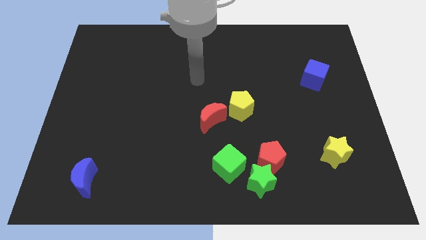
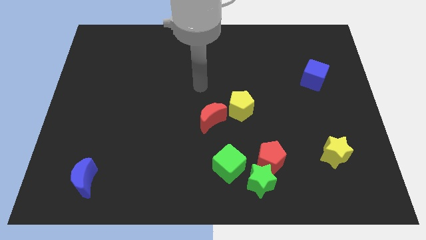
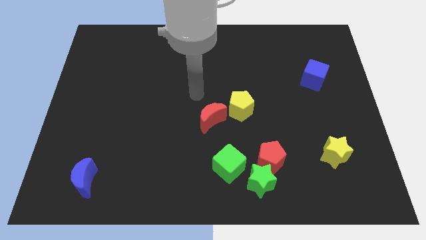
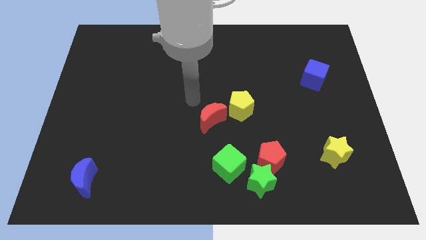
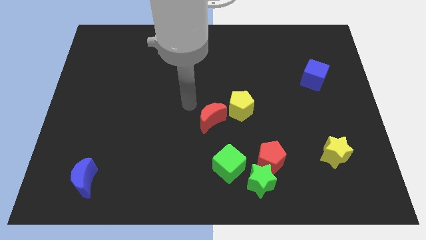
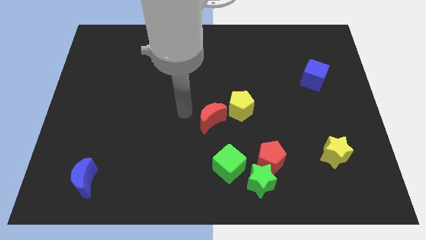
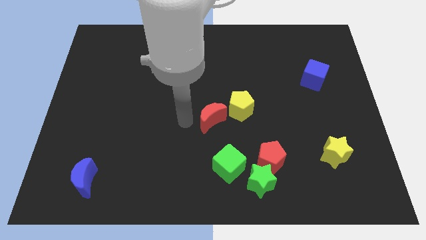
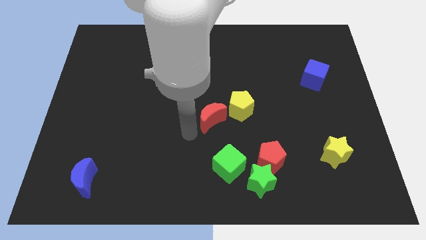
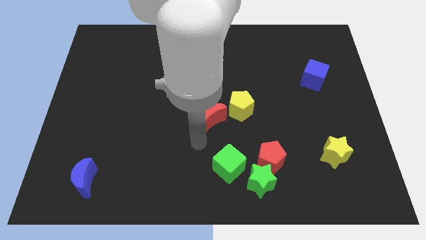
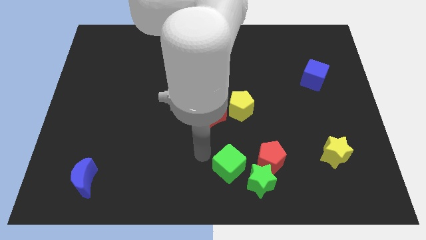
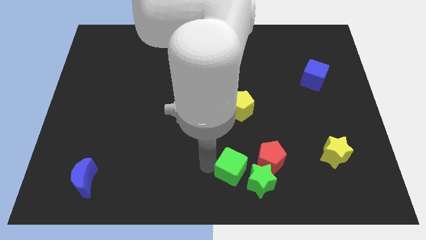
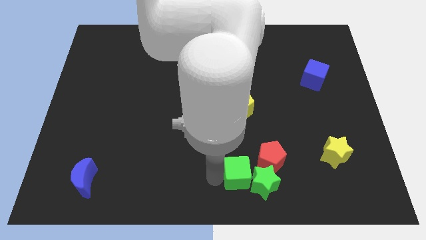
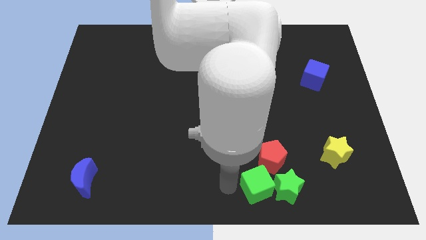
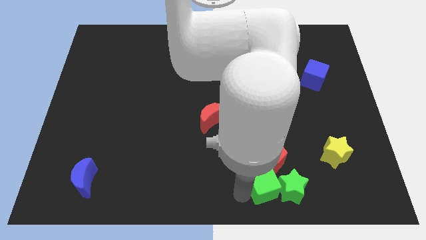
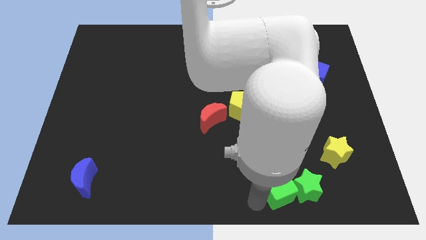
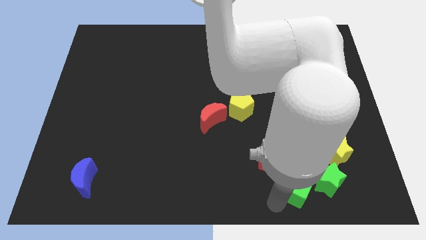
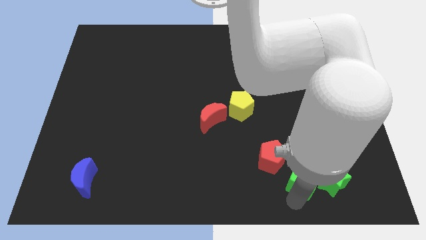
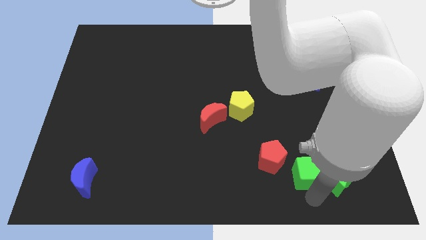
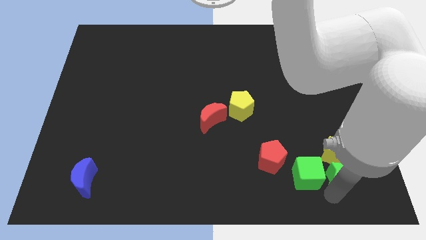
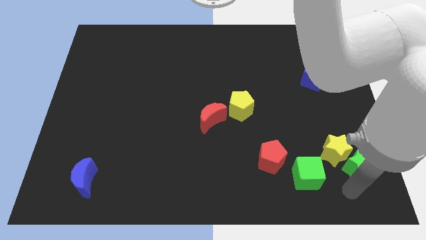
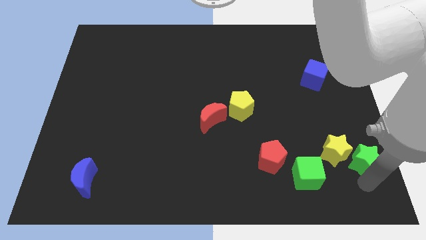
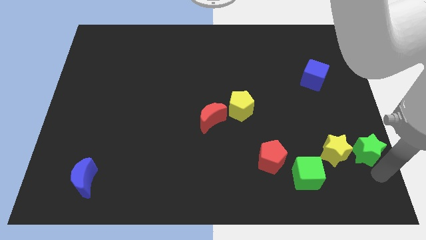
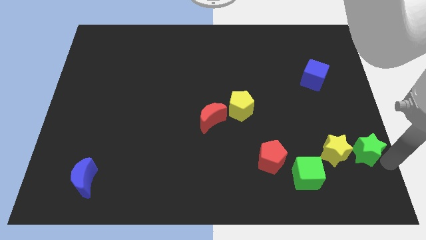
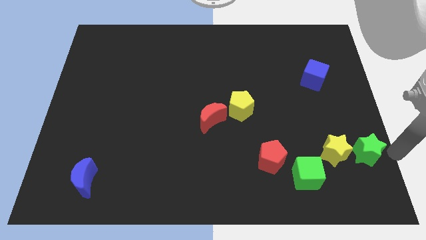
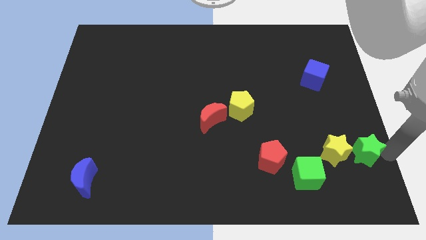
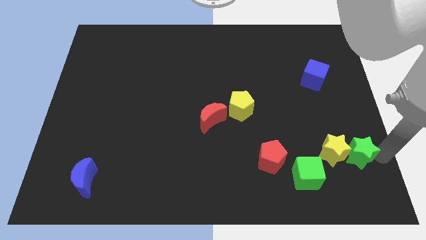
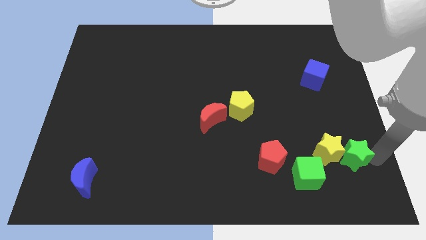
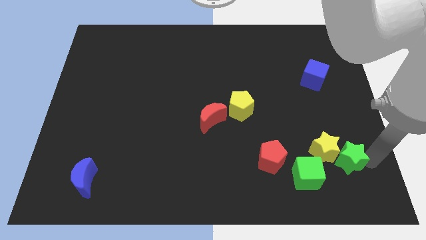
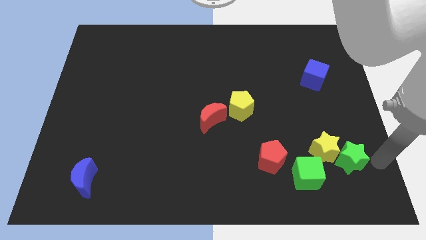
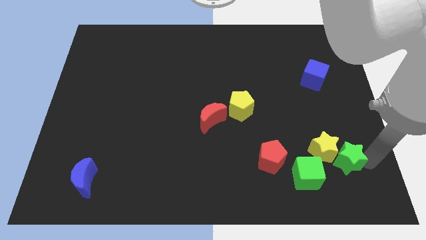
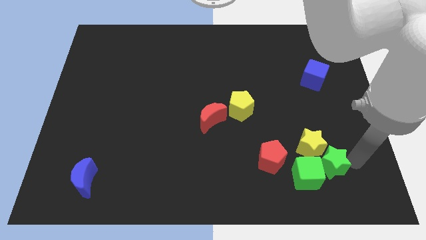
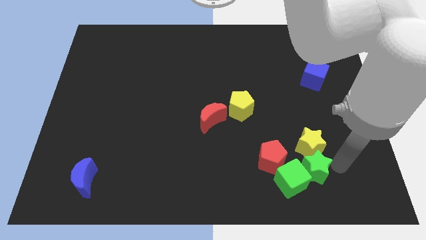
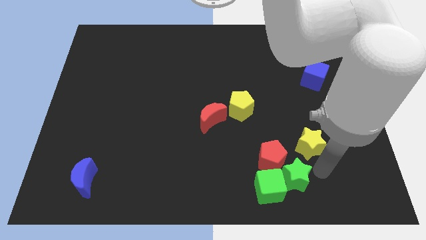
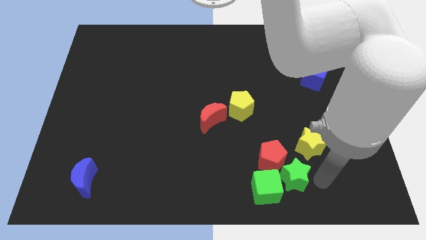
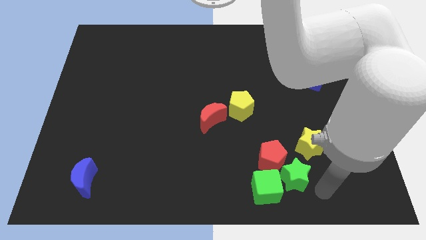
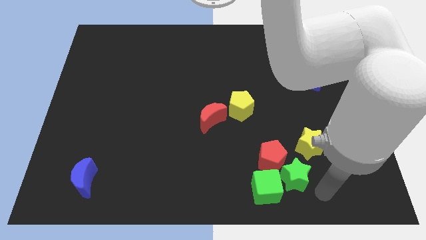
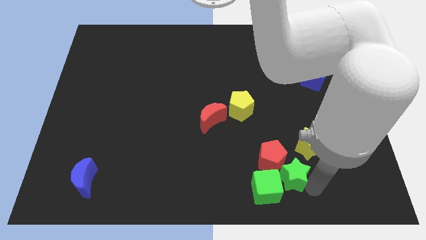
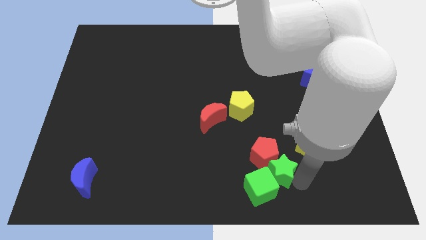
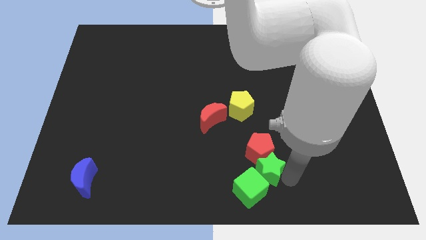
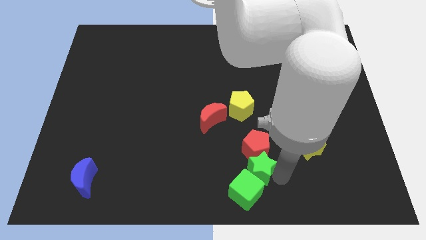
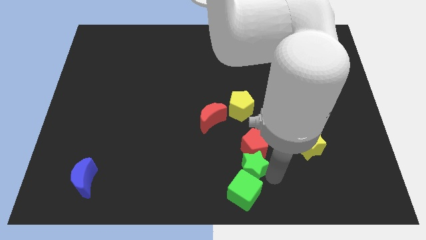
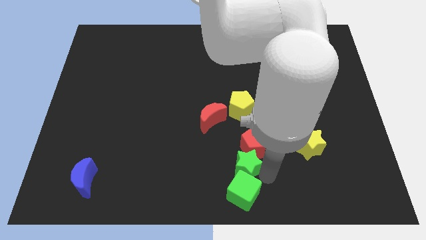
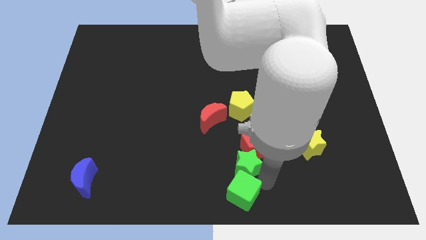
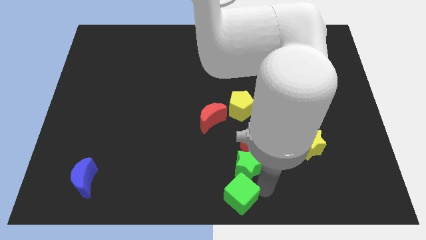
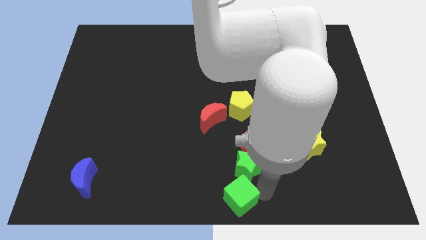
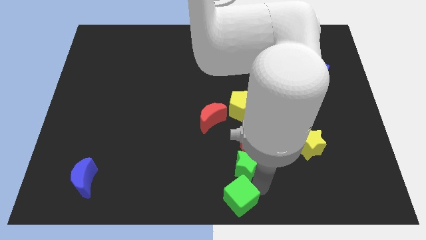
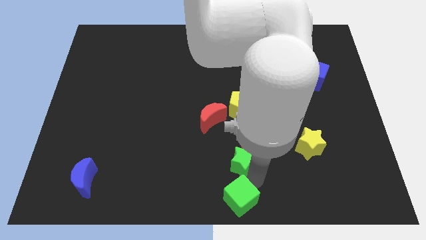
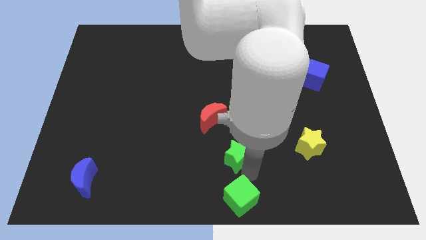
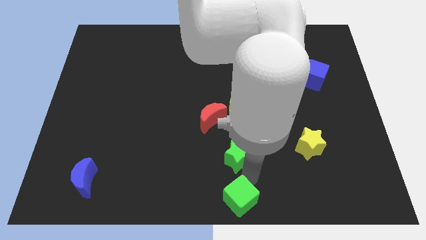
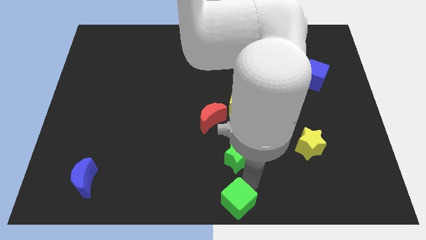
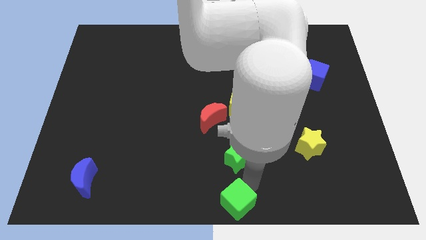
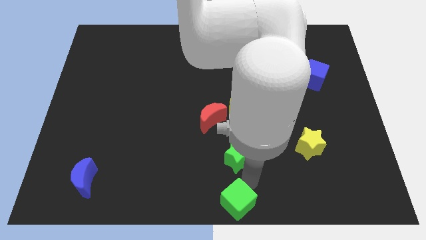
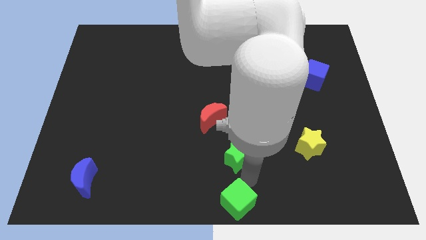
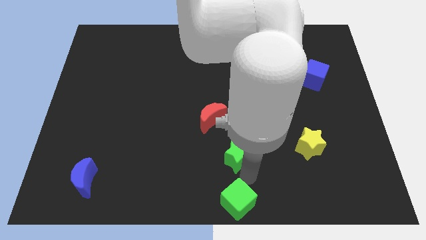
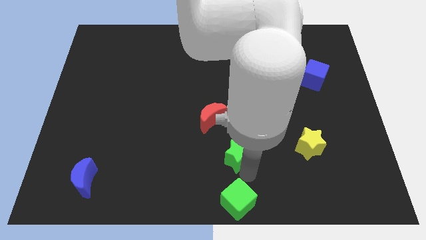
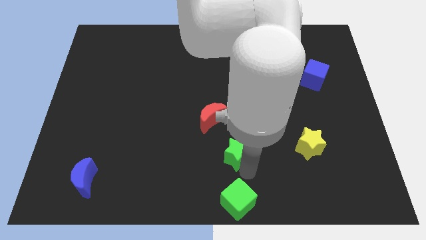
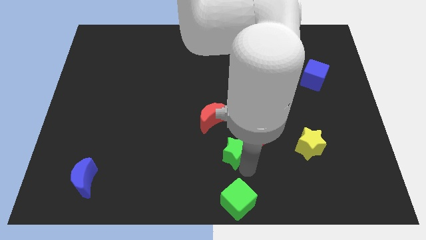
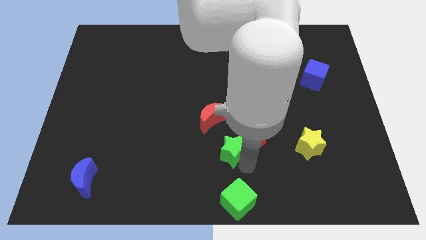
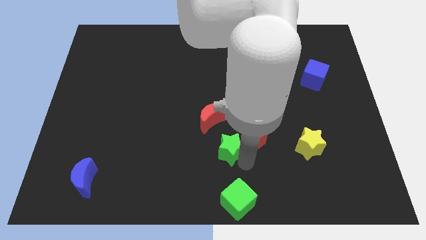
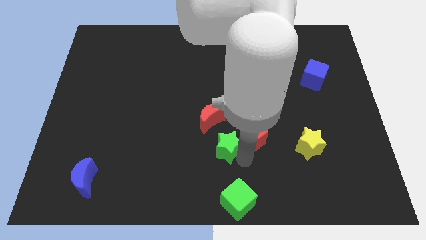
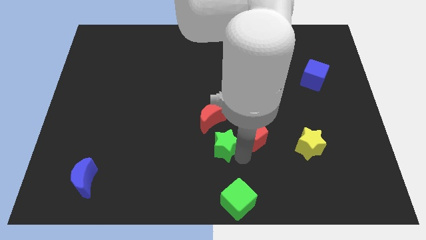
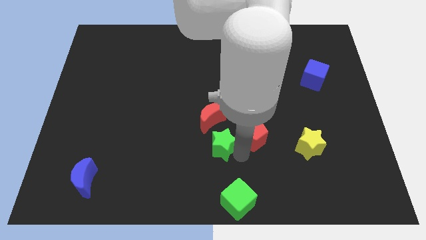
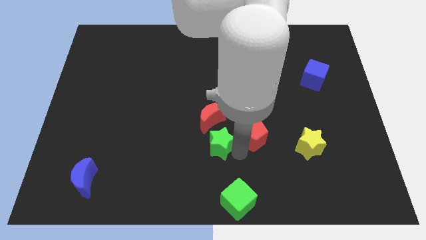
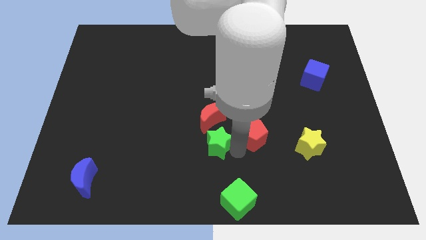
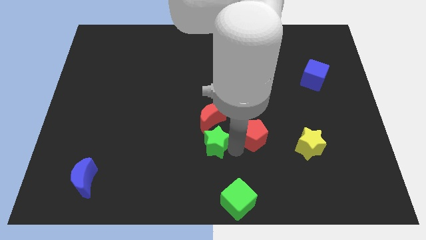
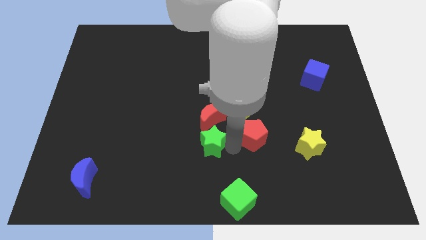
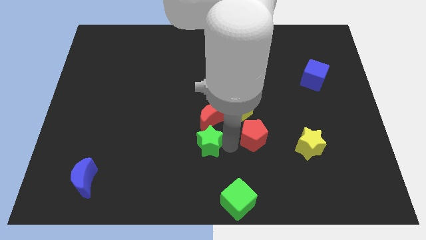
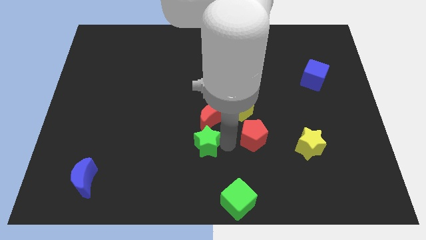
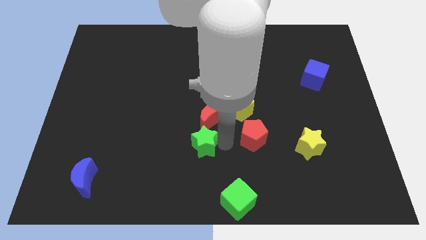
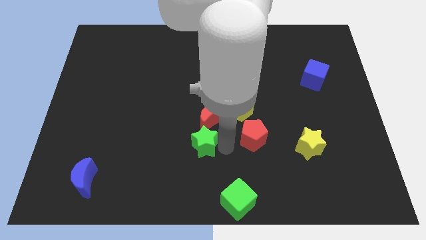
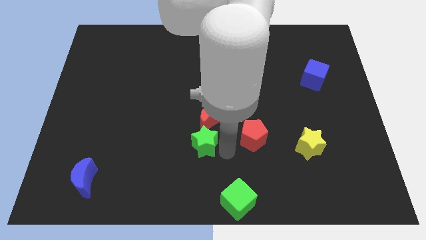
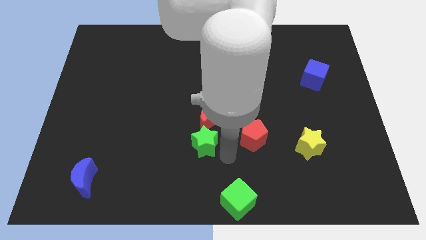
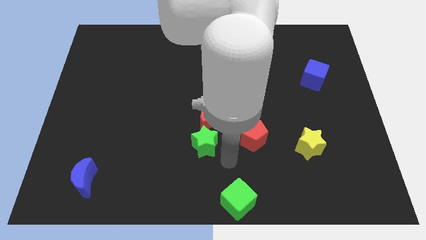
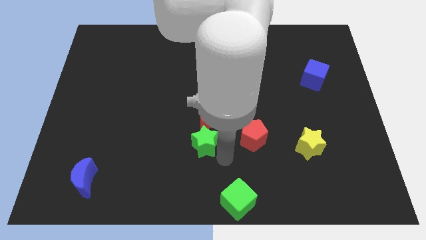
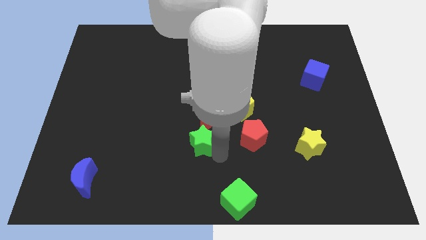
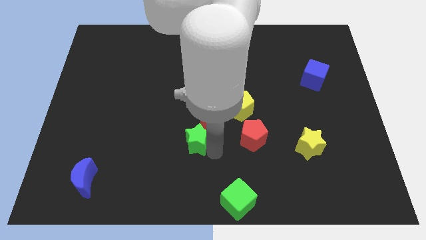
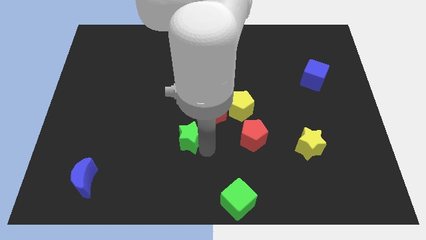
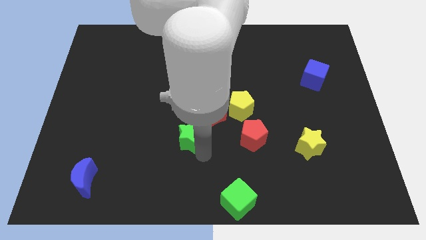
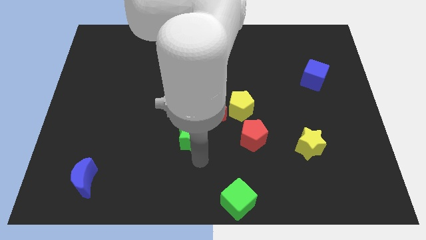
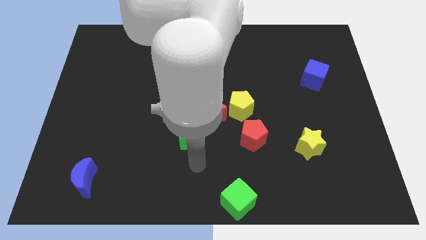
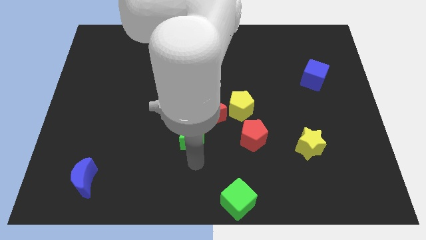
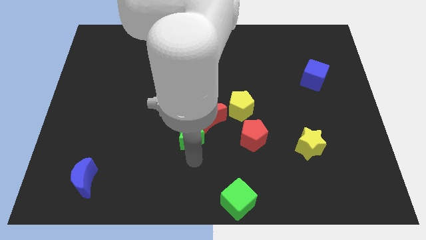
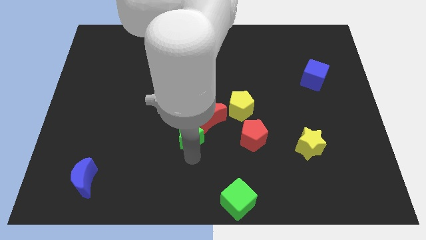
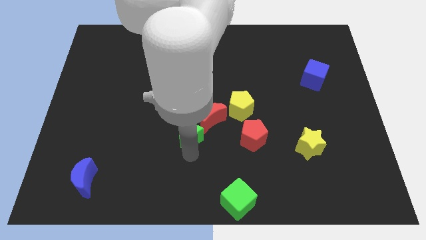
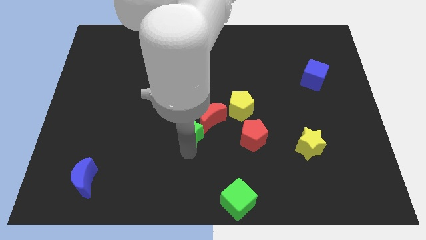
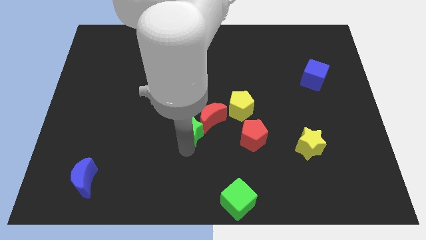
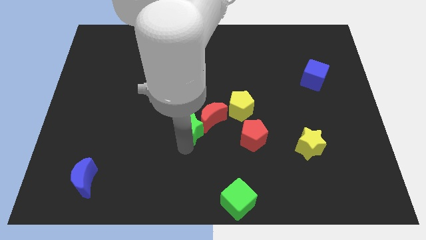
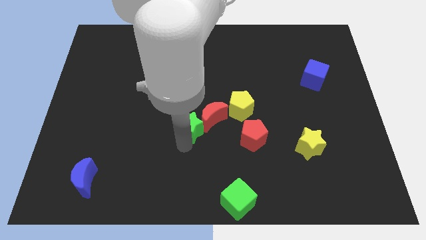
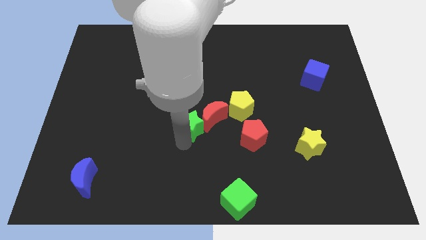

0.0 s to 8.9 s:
push the green star upwards and to the left
